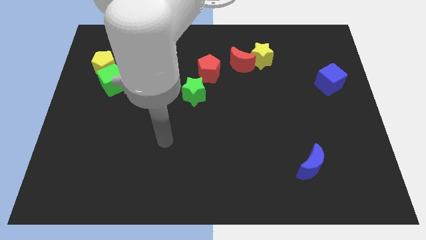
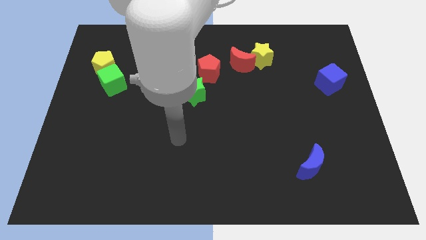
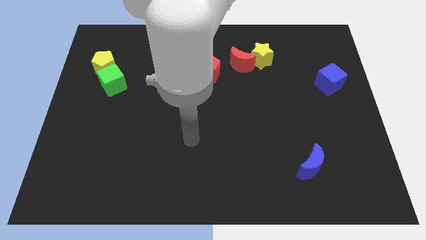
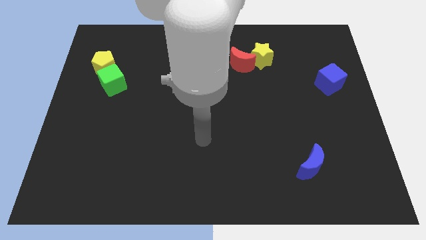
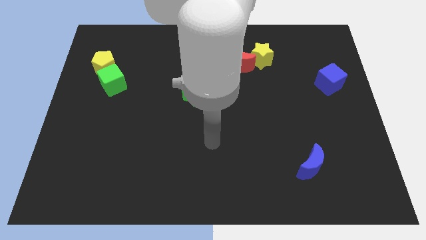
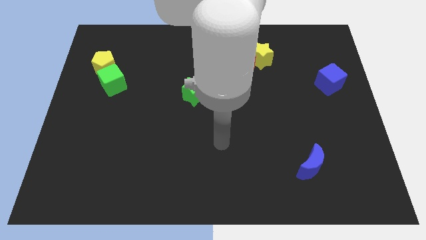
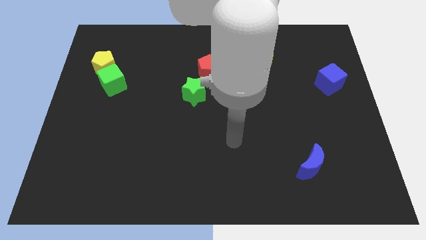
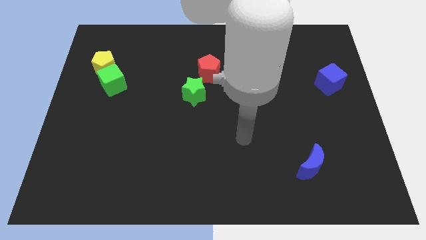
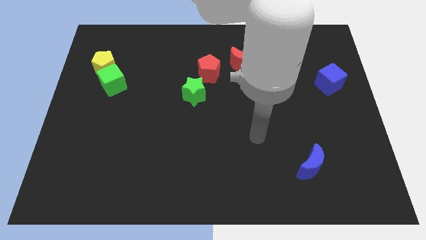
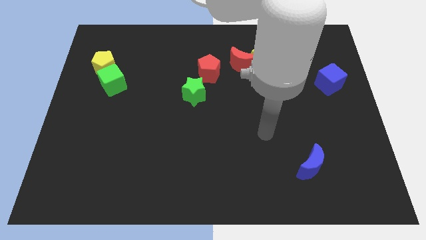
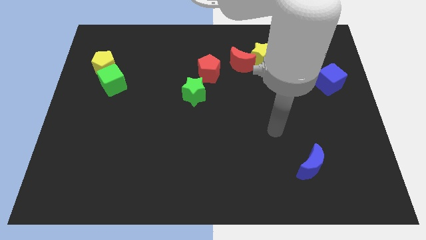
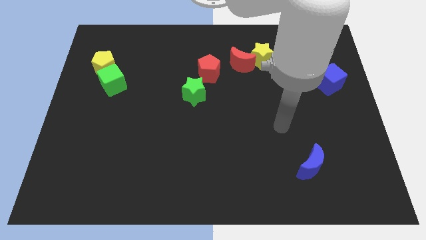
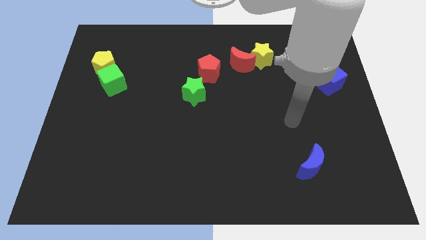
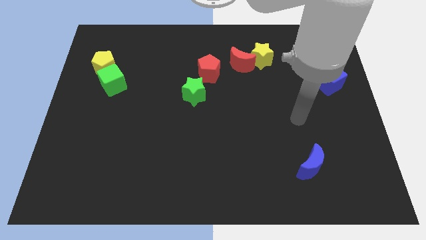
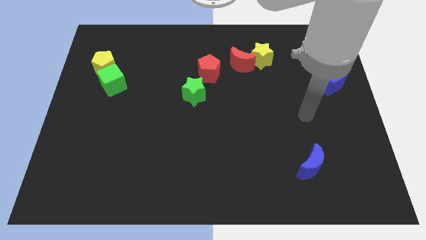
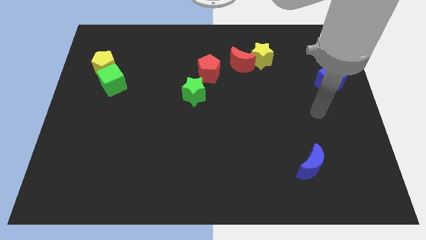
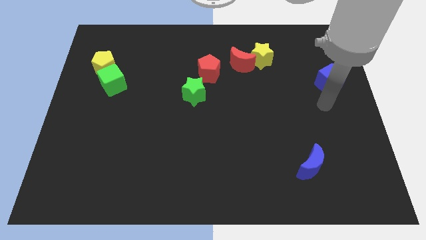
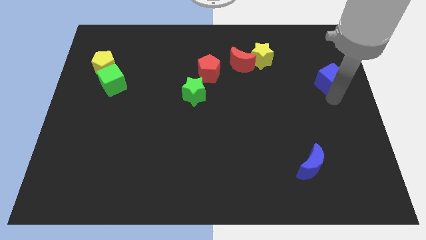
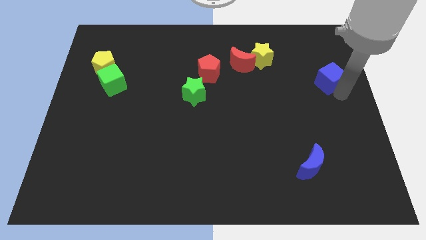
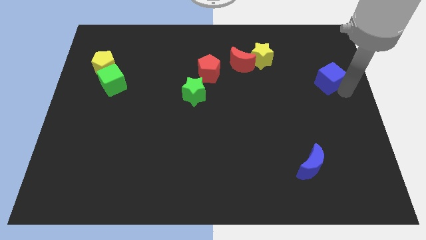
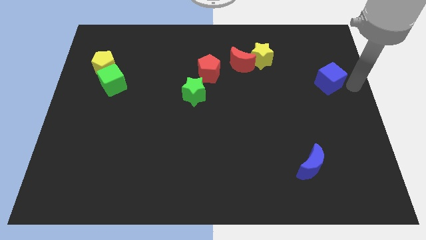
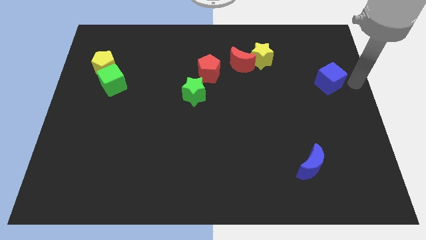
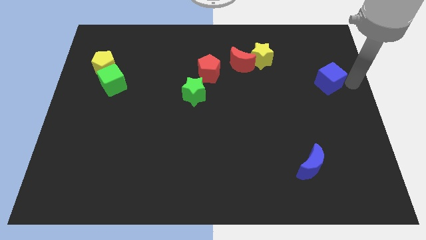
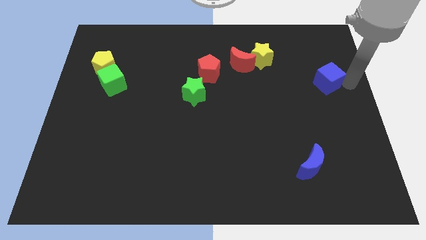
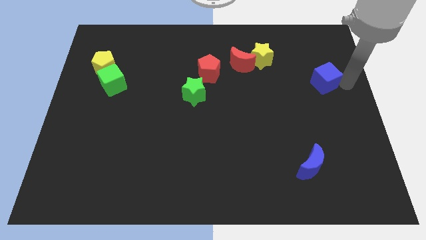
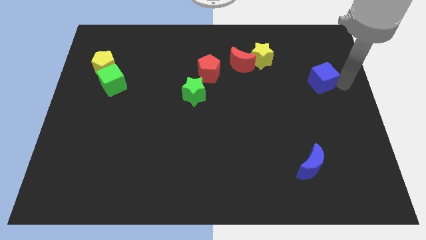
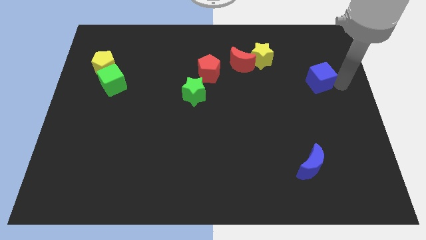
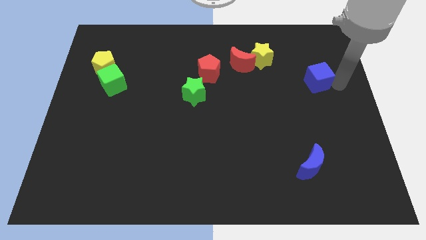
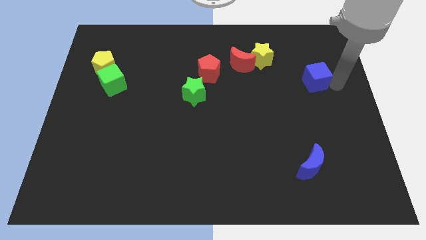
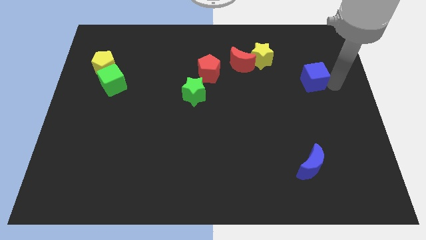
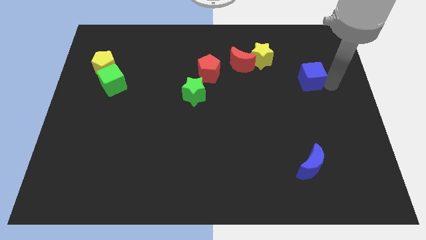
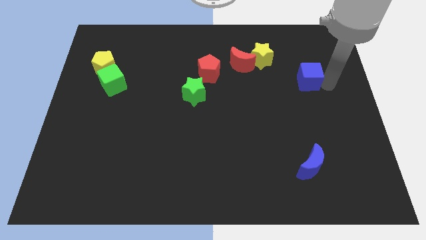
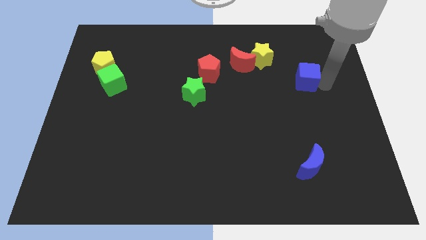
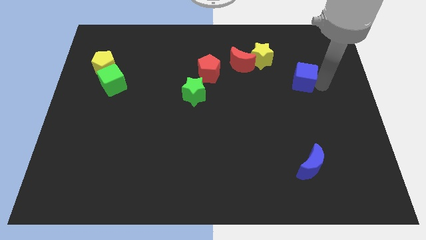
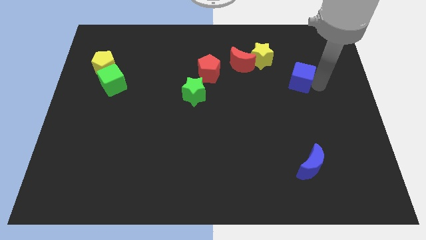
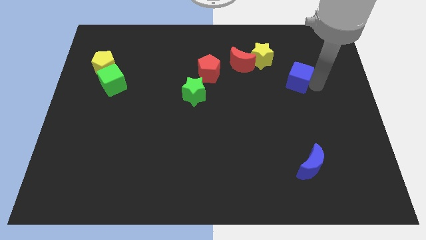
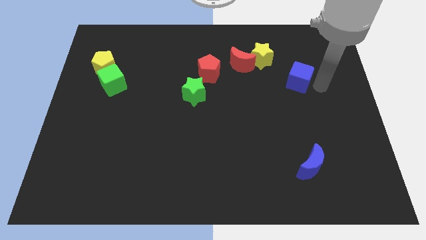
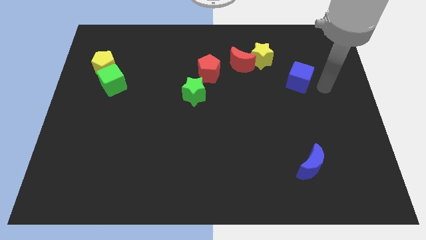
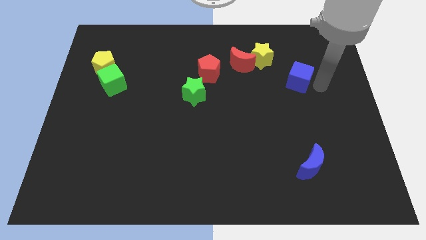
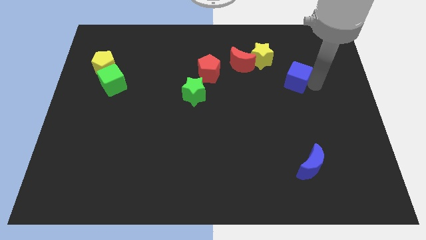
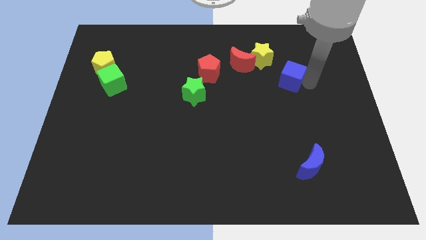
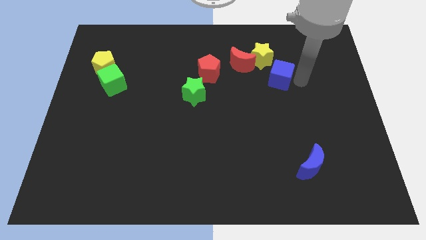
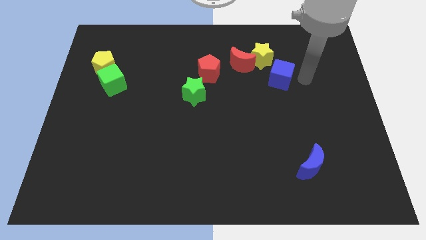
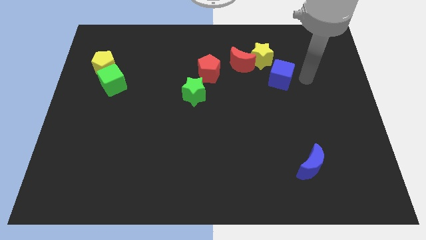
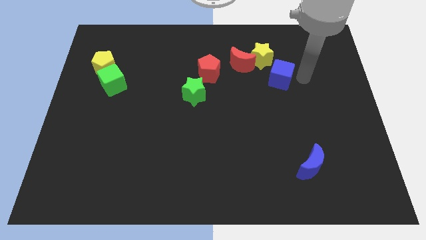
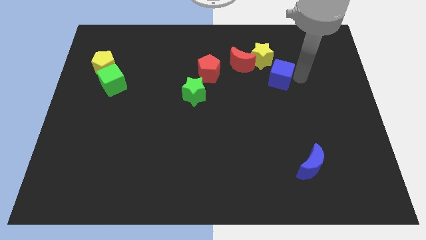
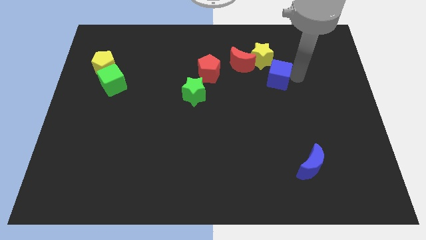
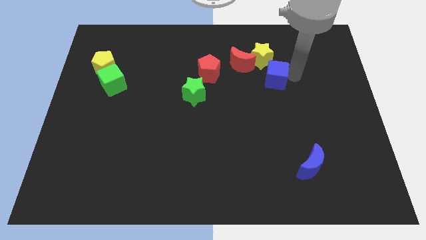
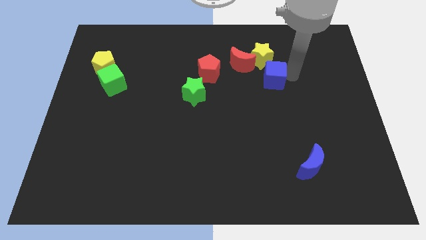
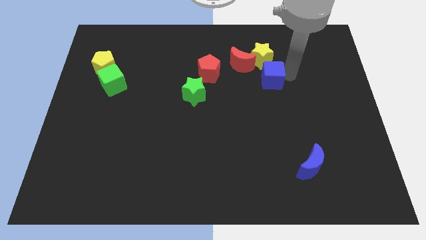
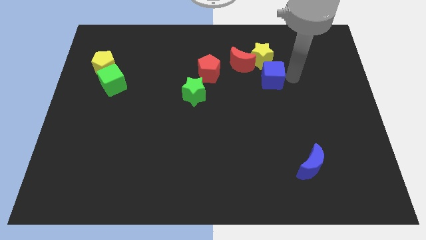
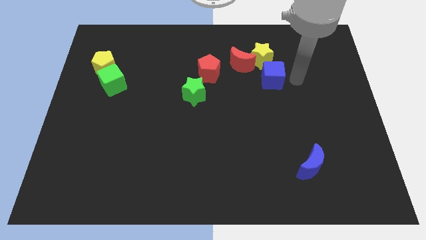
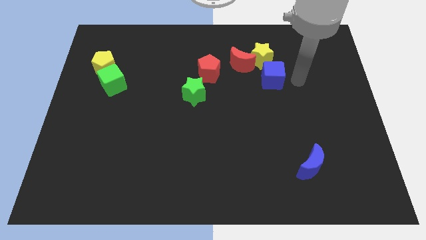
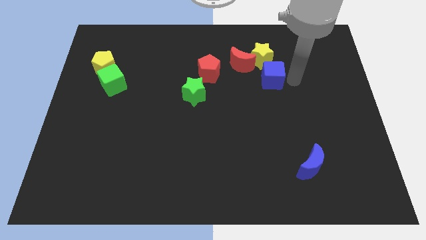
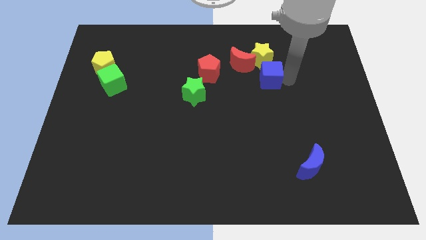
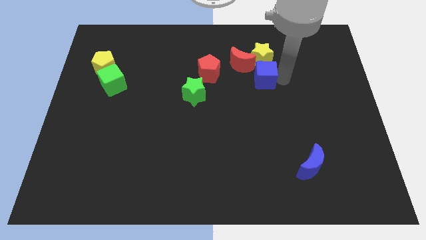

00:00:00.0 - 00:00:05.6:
move the blue cube to the bottom left of the yellow star

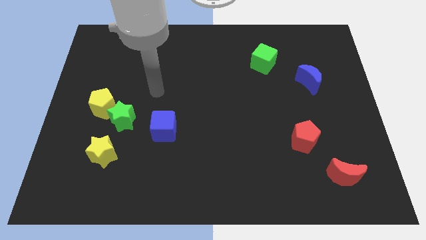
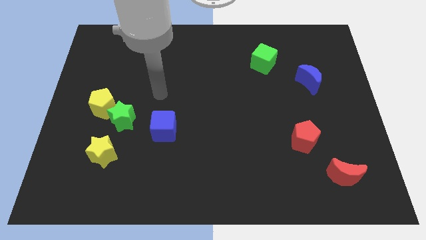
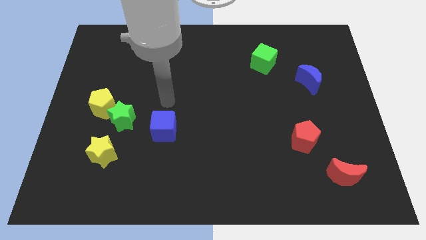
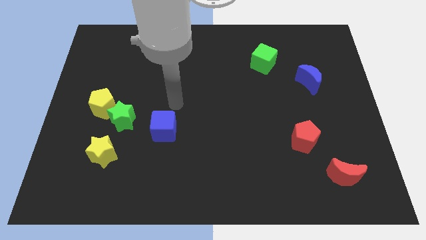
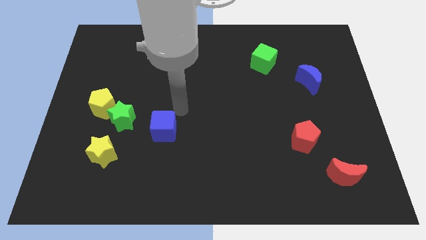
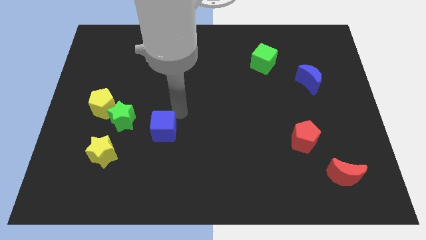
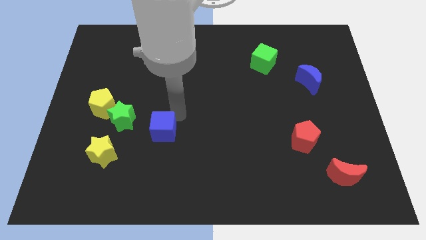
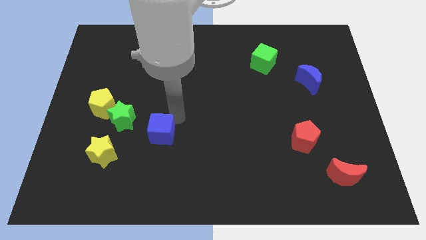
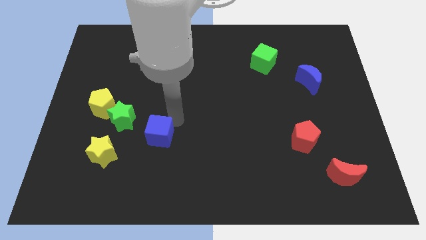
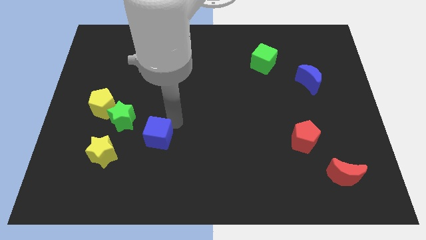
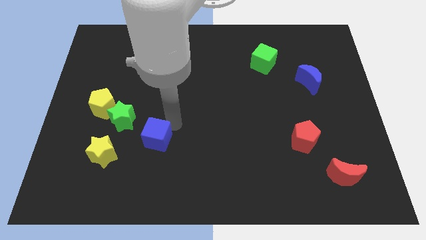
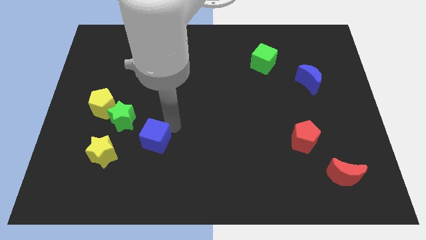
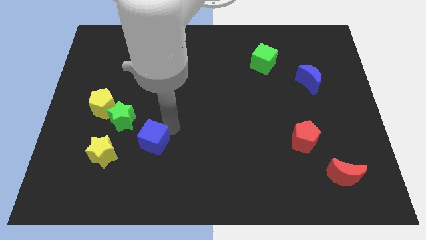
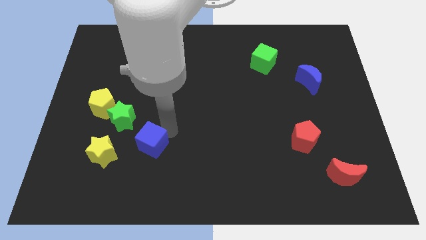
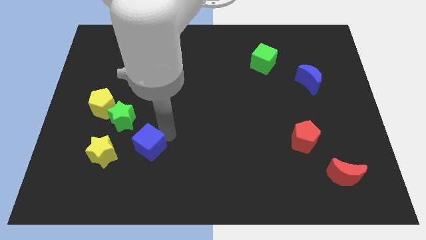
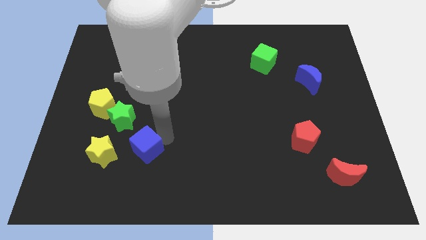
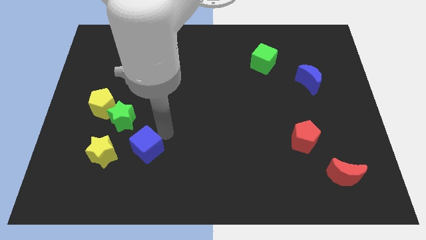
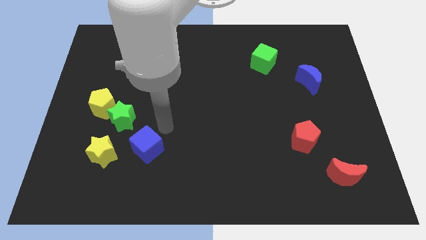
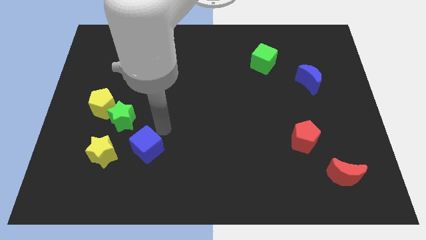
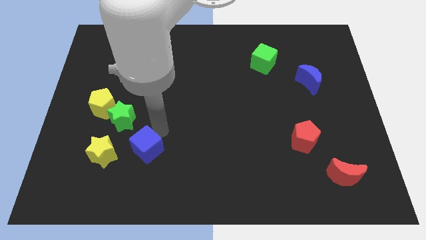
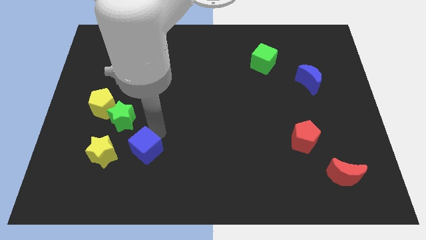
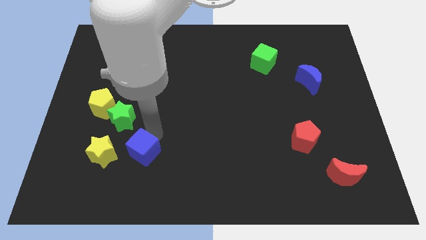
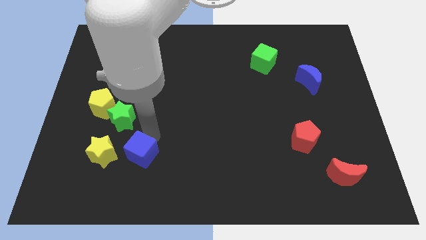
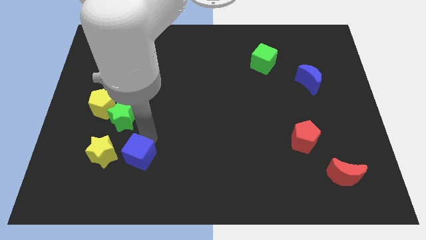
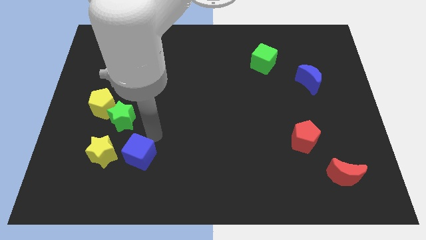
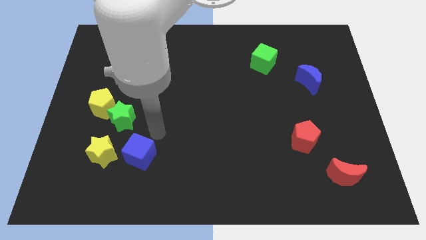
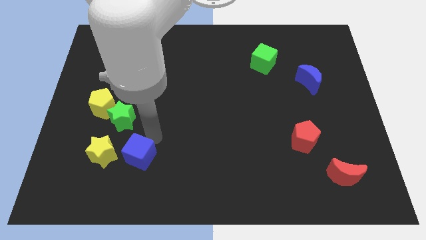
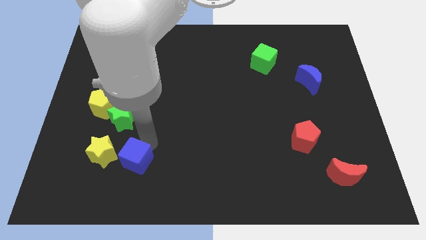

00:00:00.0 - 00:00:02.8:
put the blue cube diagonally down and to the right of the yellow star
